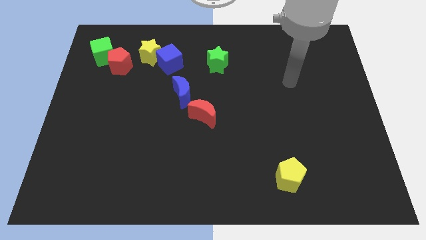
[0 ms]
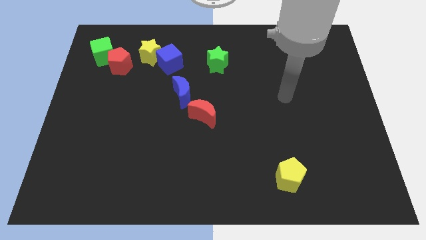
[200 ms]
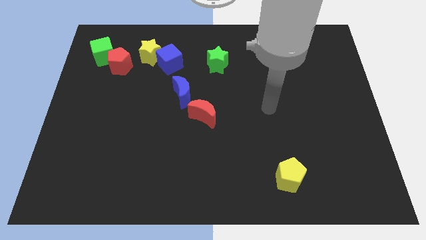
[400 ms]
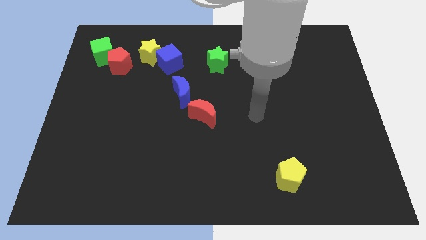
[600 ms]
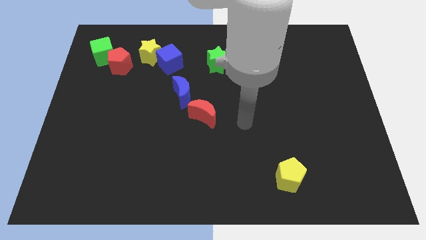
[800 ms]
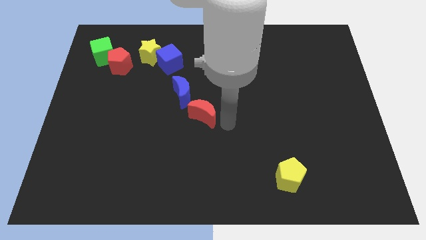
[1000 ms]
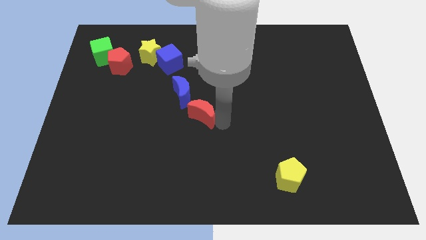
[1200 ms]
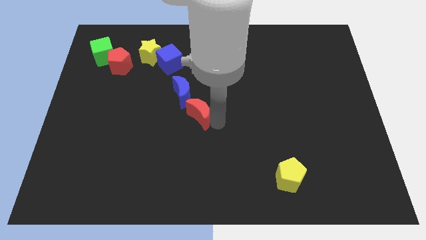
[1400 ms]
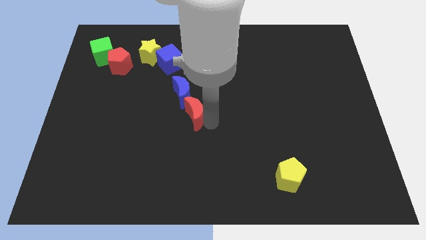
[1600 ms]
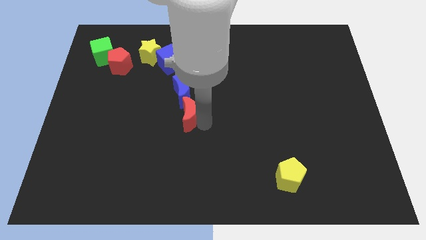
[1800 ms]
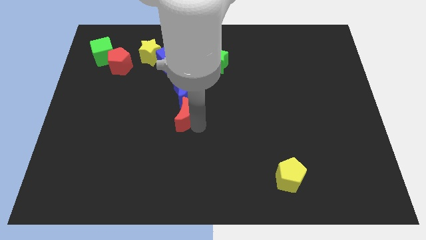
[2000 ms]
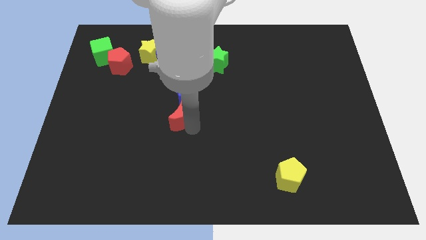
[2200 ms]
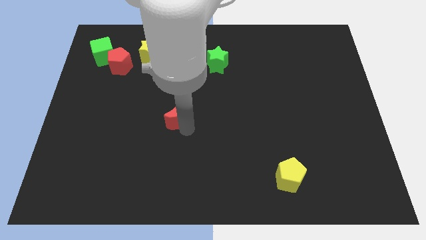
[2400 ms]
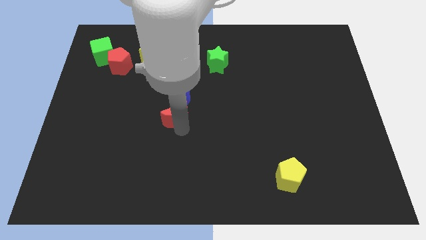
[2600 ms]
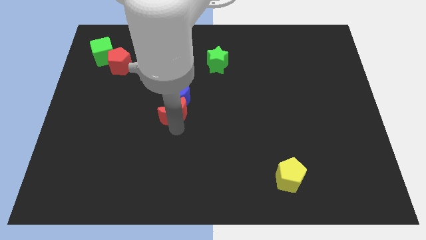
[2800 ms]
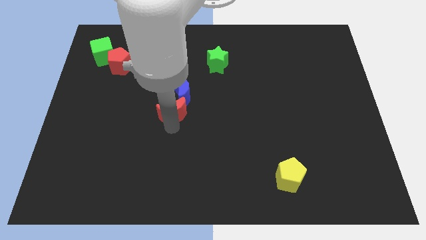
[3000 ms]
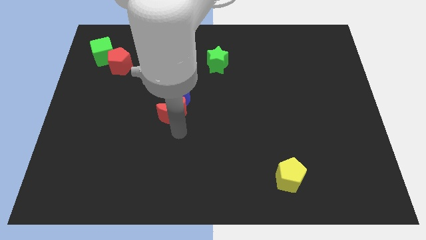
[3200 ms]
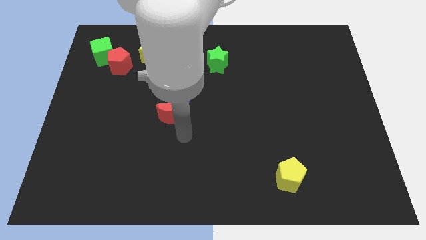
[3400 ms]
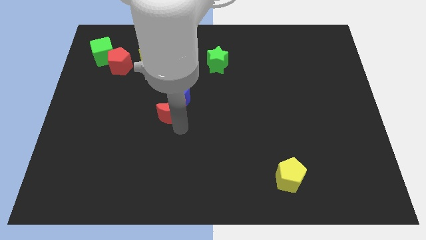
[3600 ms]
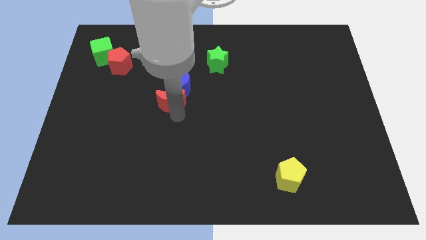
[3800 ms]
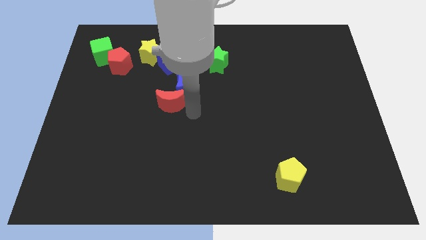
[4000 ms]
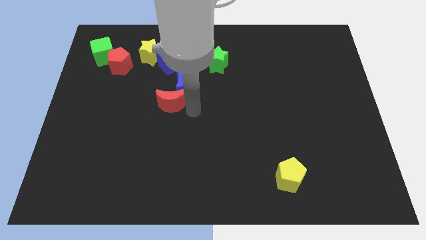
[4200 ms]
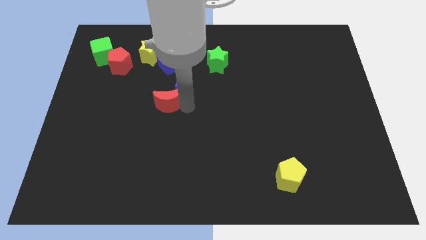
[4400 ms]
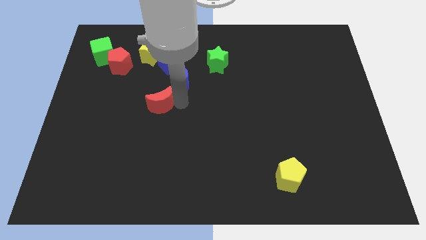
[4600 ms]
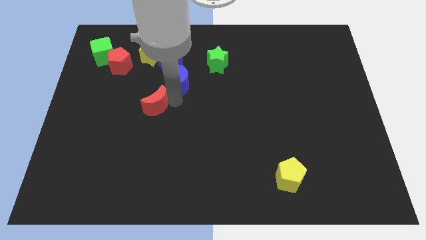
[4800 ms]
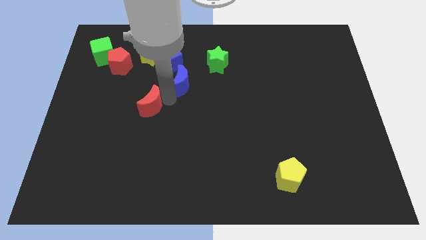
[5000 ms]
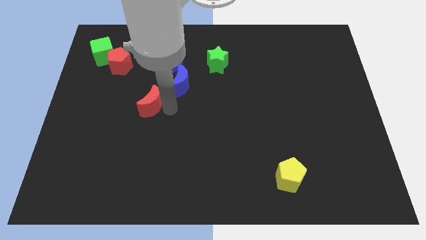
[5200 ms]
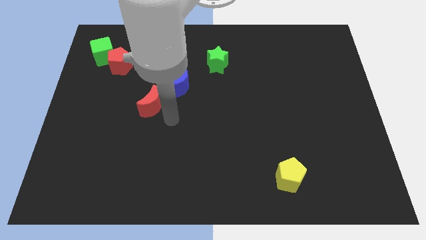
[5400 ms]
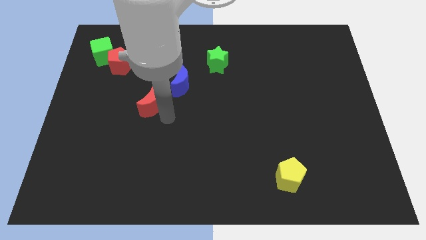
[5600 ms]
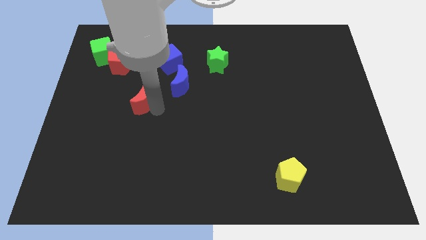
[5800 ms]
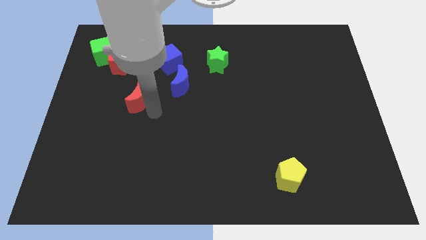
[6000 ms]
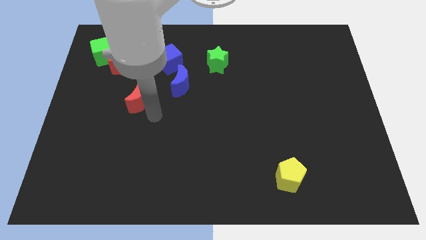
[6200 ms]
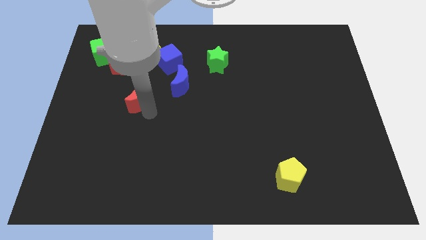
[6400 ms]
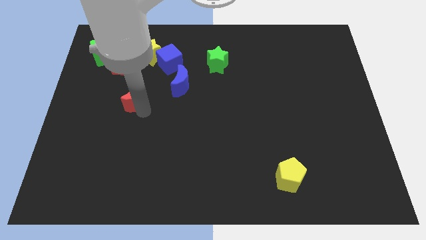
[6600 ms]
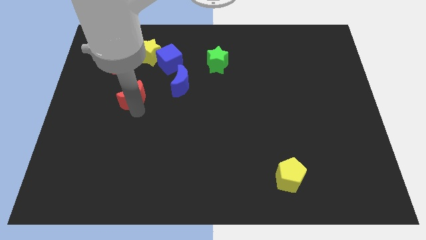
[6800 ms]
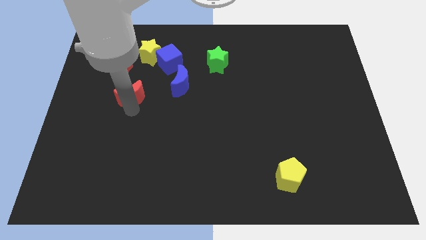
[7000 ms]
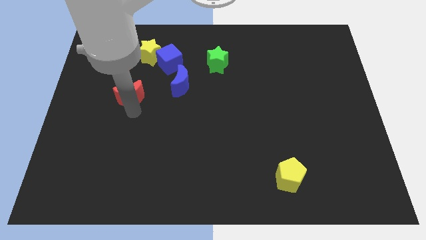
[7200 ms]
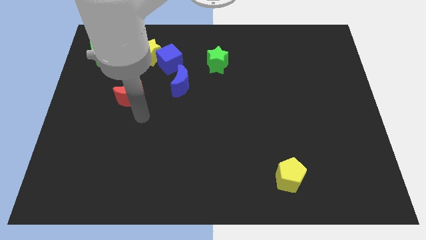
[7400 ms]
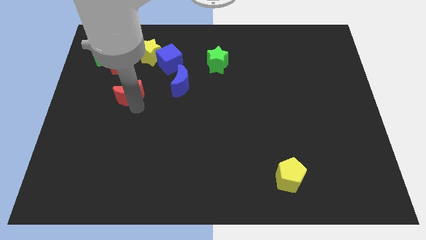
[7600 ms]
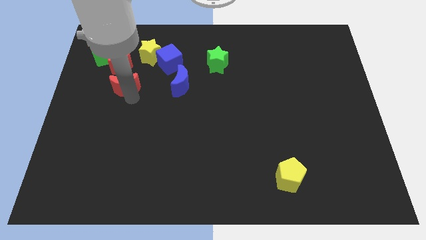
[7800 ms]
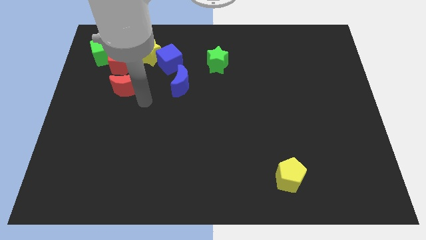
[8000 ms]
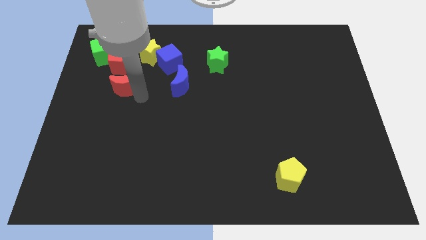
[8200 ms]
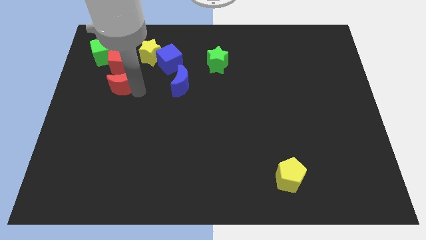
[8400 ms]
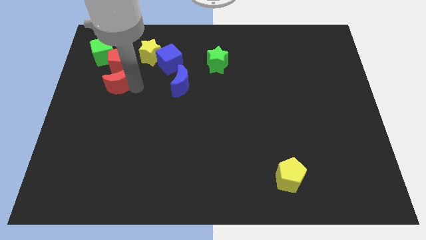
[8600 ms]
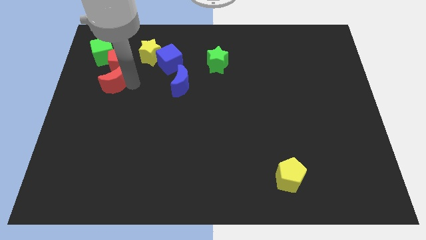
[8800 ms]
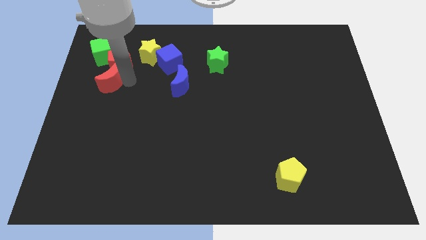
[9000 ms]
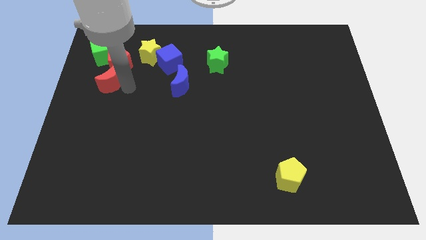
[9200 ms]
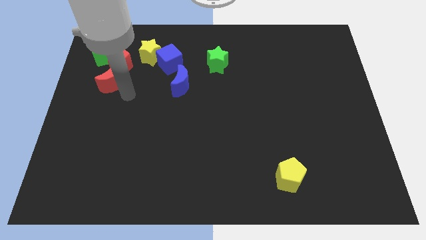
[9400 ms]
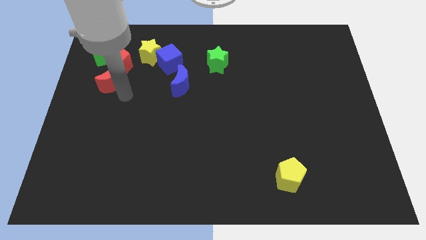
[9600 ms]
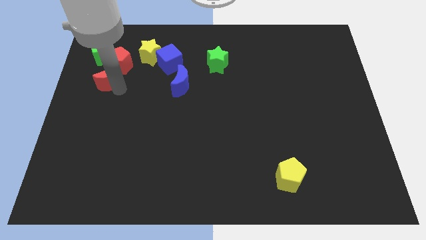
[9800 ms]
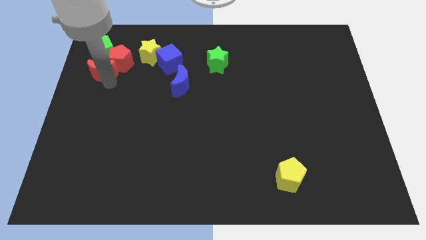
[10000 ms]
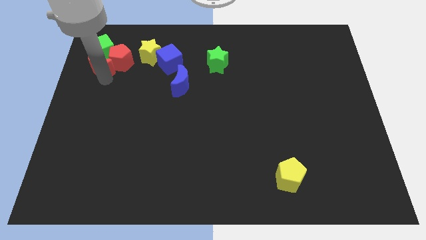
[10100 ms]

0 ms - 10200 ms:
move the red moon close to the green cube

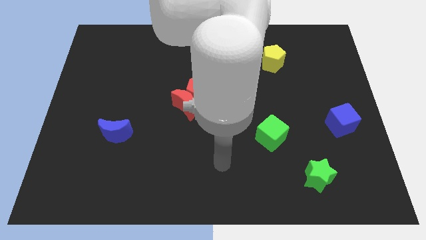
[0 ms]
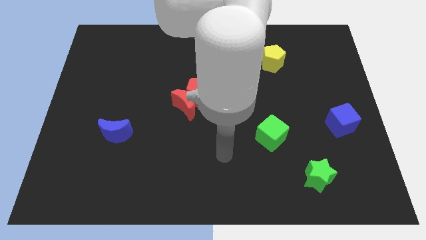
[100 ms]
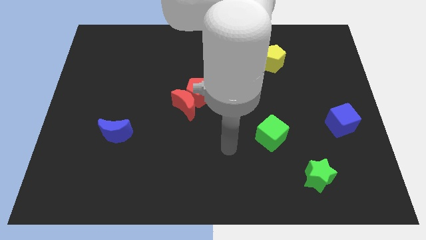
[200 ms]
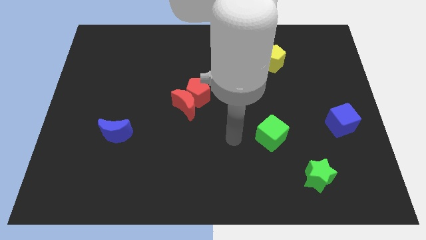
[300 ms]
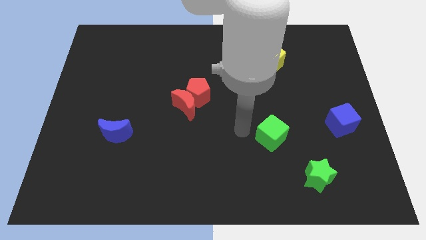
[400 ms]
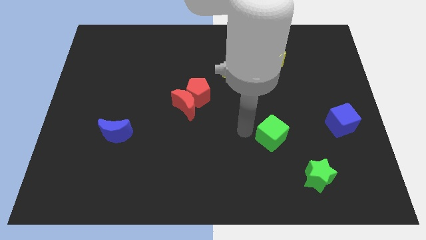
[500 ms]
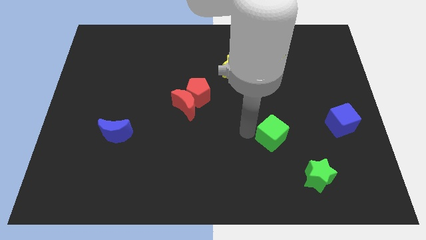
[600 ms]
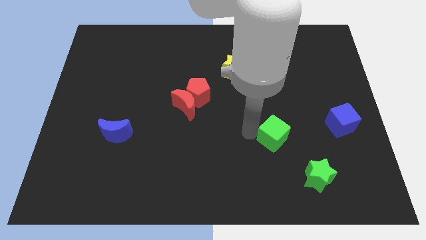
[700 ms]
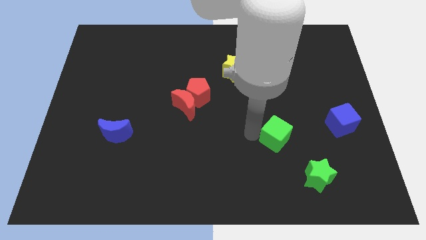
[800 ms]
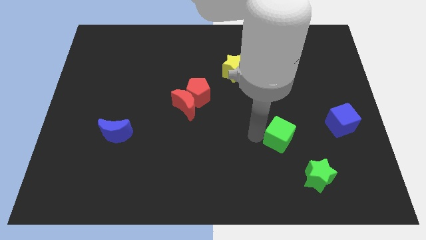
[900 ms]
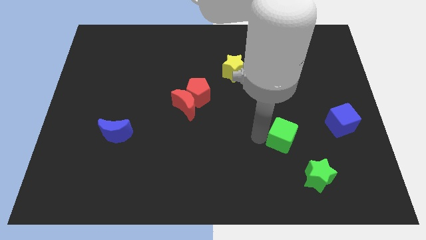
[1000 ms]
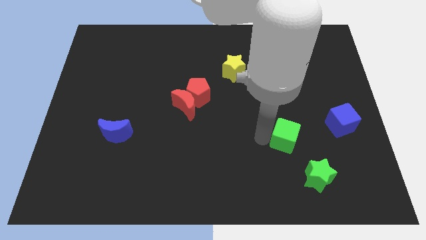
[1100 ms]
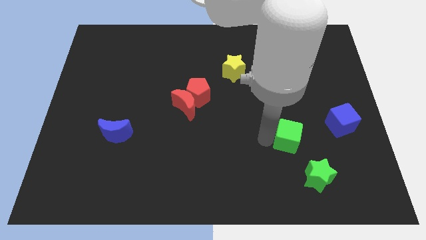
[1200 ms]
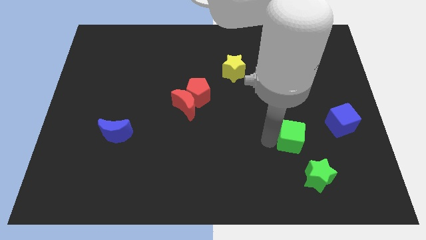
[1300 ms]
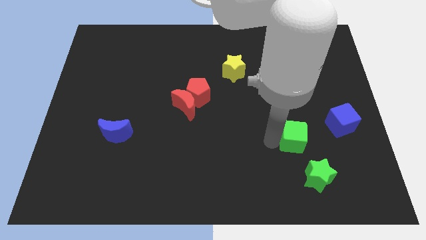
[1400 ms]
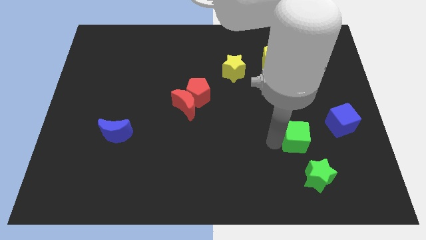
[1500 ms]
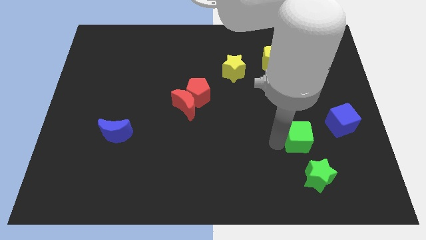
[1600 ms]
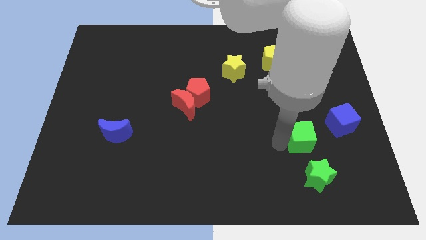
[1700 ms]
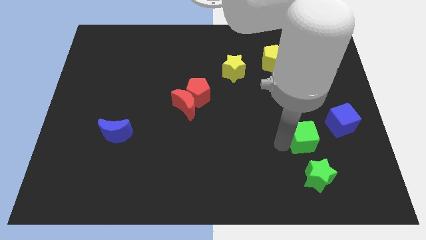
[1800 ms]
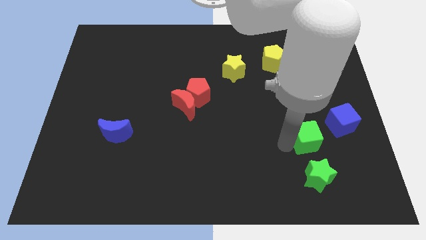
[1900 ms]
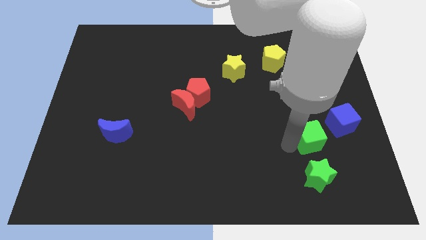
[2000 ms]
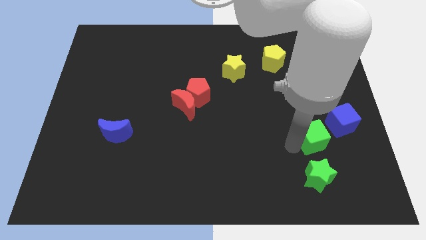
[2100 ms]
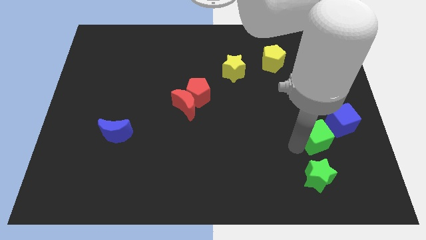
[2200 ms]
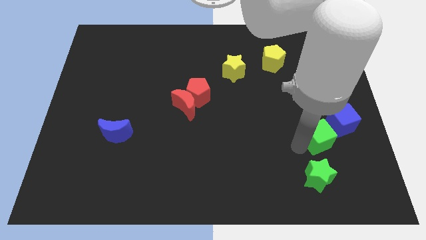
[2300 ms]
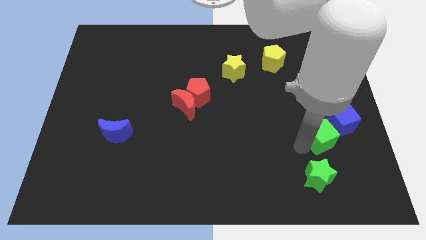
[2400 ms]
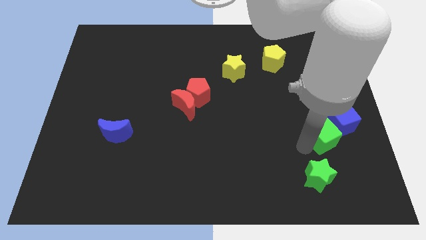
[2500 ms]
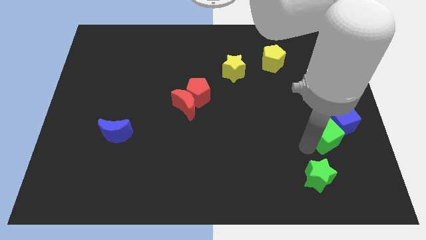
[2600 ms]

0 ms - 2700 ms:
move the green cube to the blue cube
